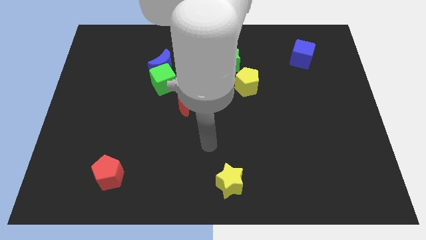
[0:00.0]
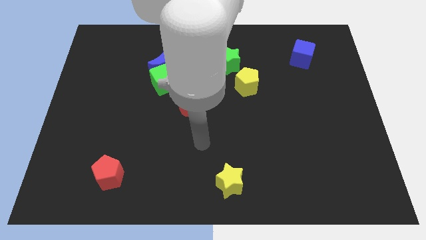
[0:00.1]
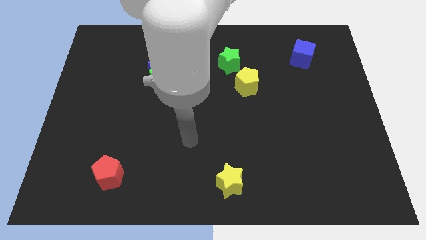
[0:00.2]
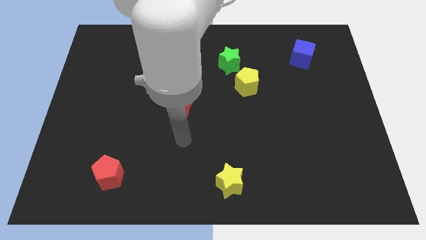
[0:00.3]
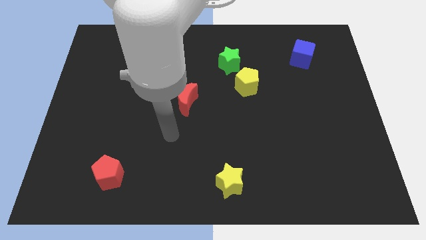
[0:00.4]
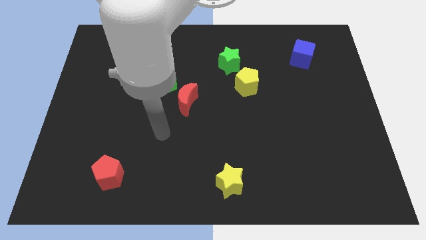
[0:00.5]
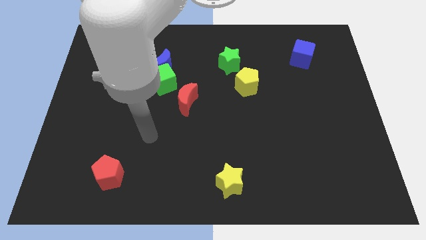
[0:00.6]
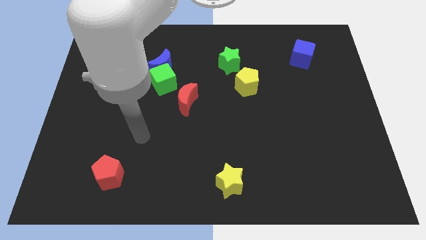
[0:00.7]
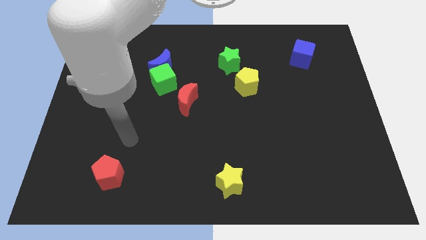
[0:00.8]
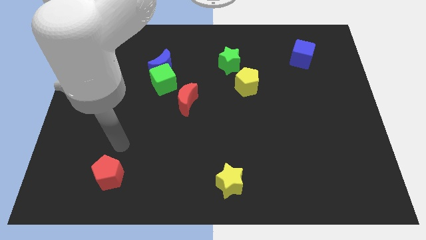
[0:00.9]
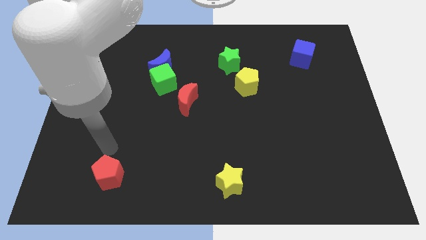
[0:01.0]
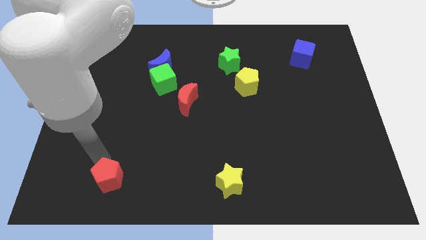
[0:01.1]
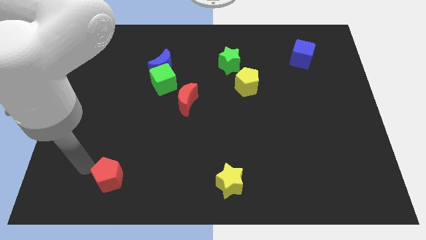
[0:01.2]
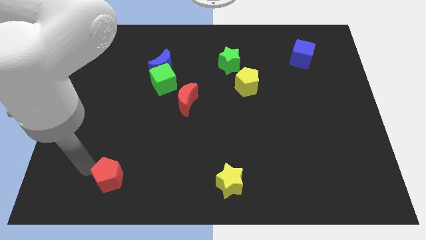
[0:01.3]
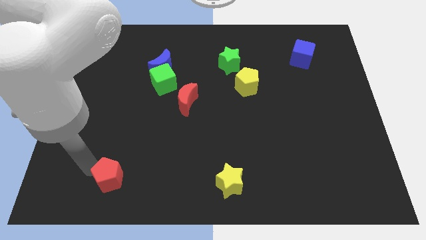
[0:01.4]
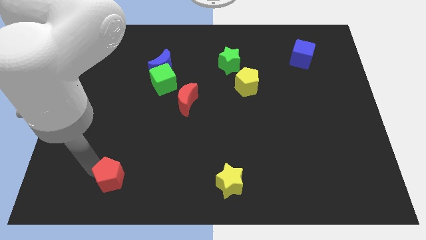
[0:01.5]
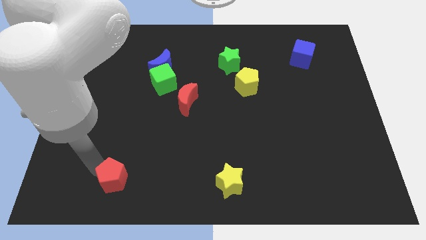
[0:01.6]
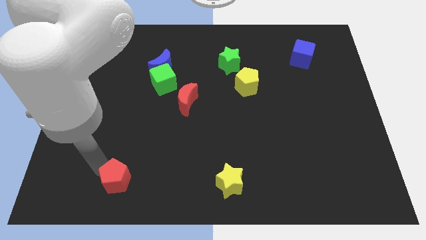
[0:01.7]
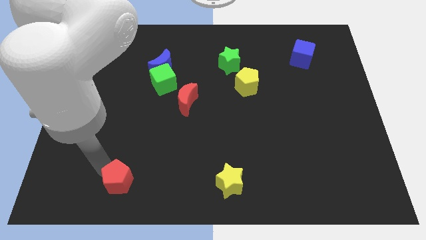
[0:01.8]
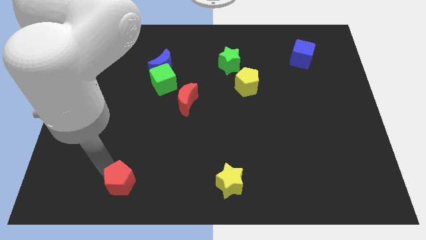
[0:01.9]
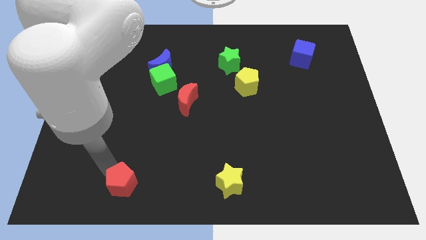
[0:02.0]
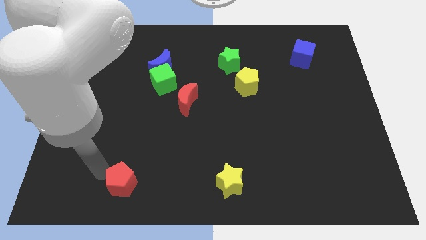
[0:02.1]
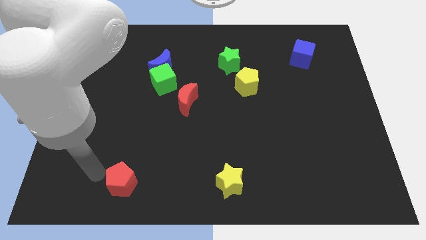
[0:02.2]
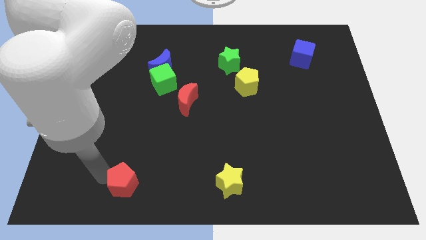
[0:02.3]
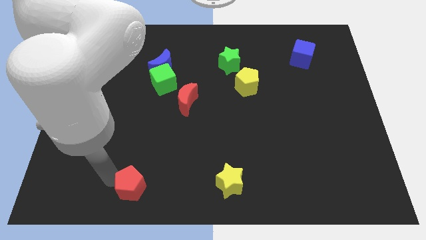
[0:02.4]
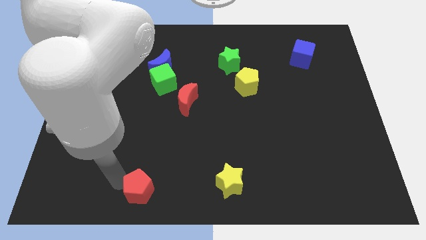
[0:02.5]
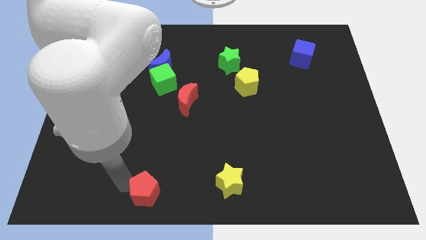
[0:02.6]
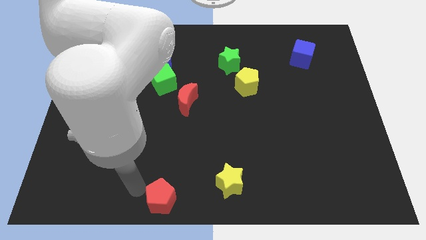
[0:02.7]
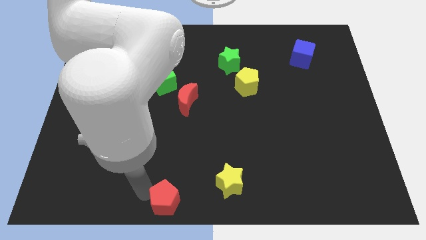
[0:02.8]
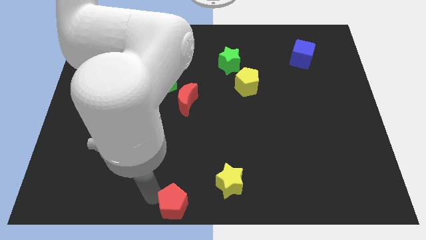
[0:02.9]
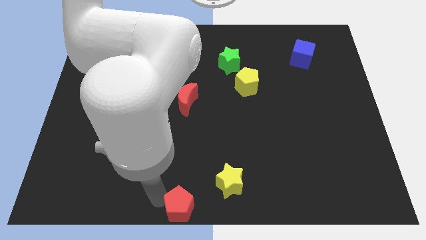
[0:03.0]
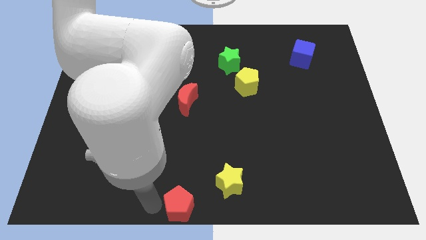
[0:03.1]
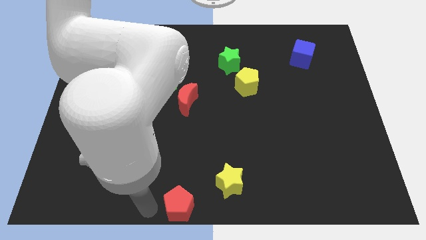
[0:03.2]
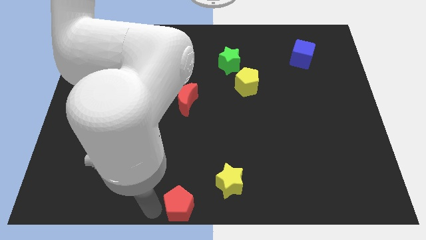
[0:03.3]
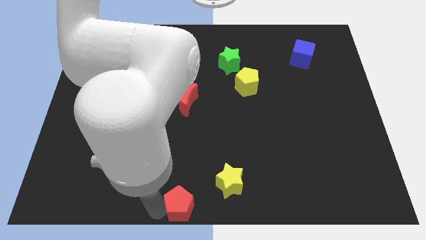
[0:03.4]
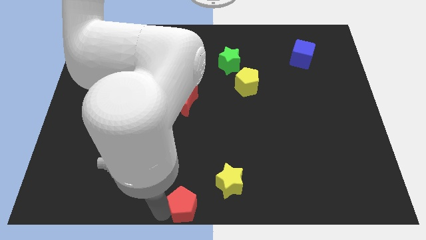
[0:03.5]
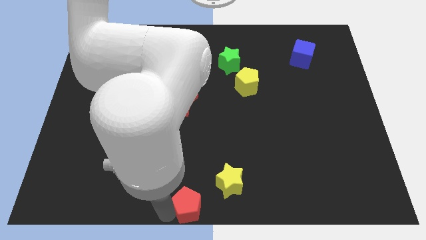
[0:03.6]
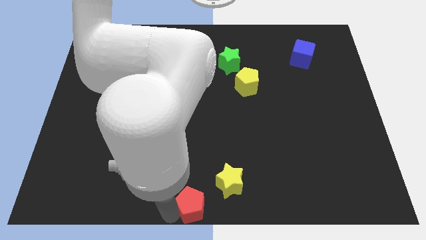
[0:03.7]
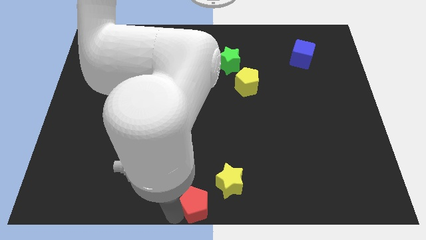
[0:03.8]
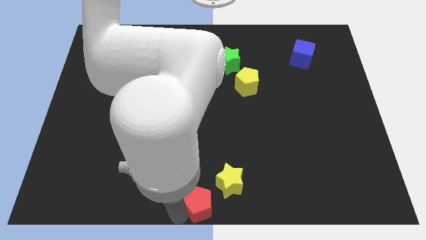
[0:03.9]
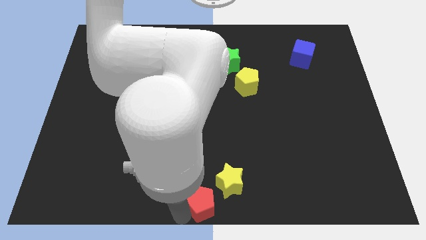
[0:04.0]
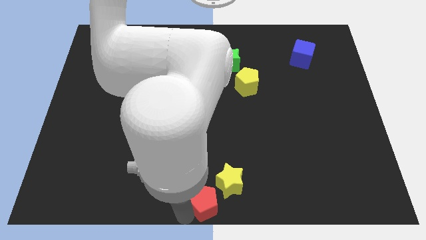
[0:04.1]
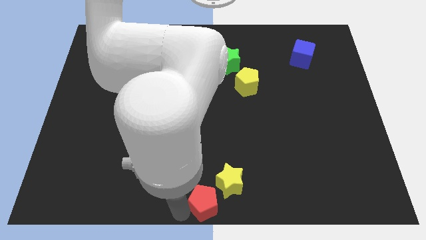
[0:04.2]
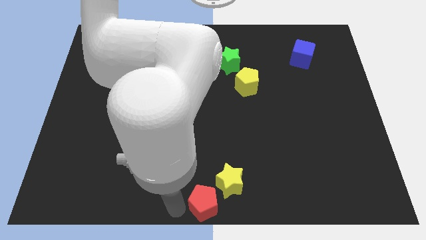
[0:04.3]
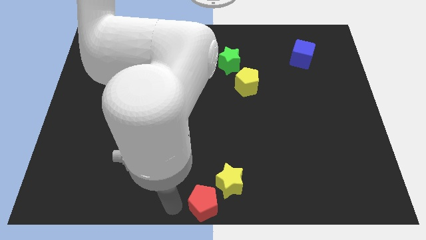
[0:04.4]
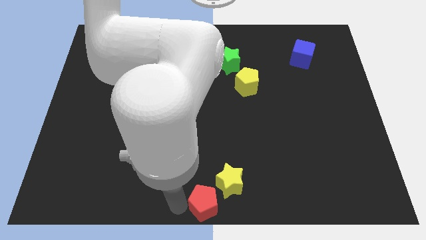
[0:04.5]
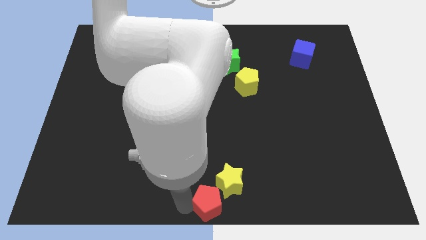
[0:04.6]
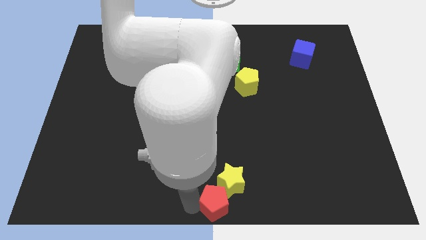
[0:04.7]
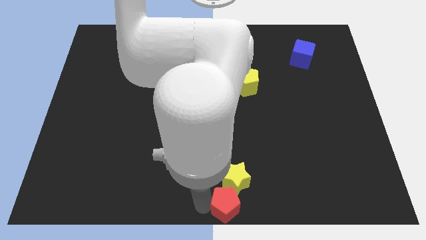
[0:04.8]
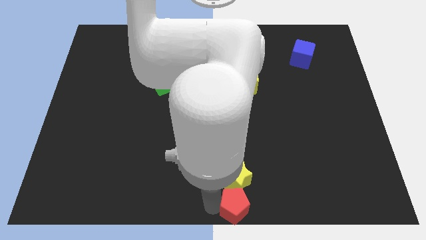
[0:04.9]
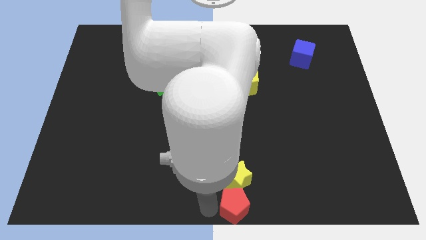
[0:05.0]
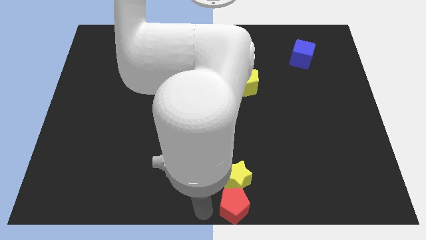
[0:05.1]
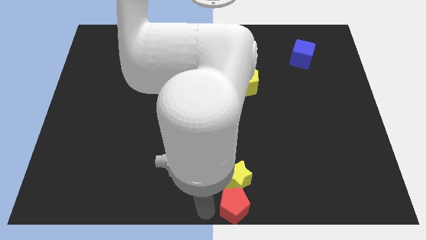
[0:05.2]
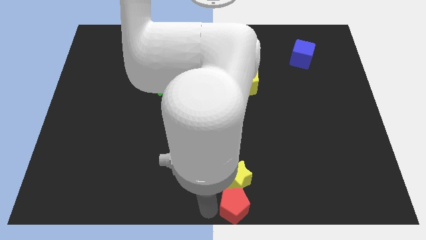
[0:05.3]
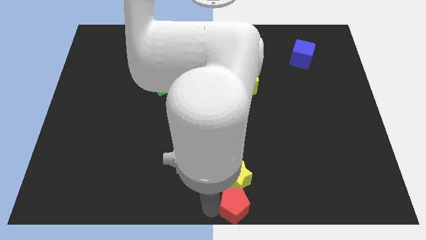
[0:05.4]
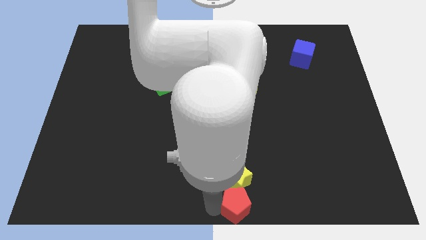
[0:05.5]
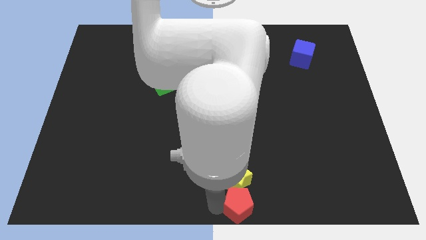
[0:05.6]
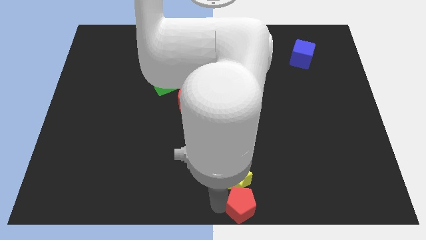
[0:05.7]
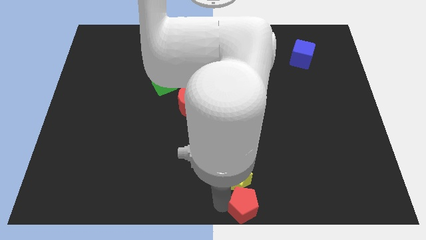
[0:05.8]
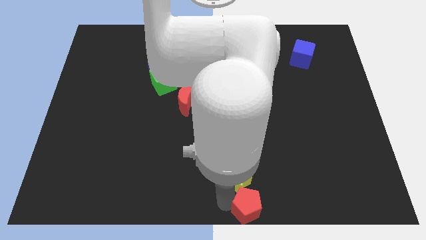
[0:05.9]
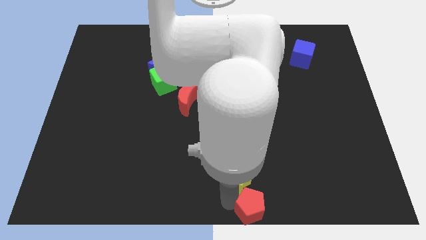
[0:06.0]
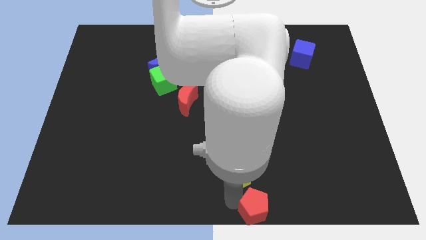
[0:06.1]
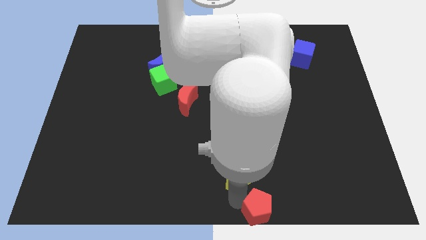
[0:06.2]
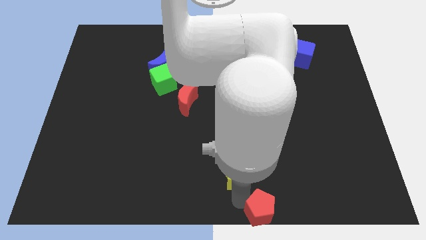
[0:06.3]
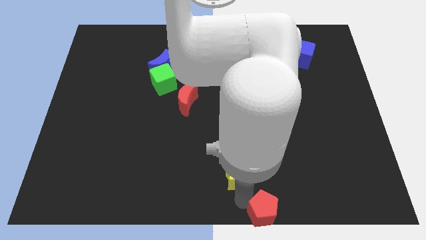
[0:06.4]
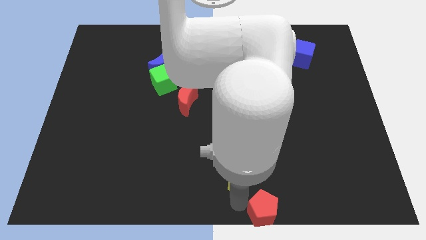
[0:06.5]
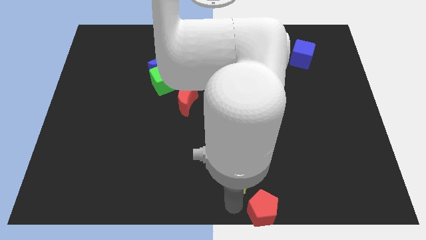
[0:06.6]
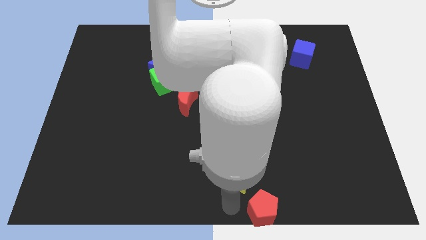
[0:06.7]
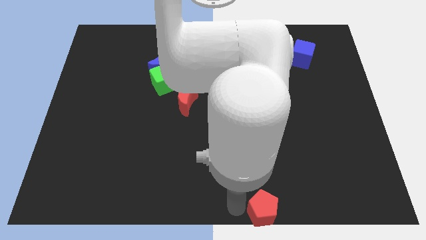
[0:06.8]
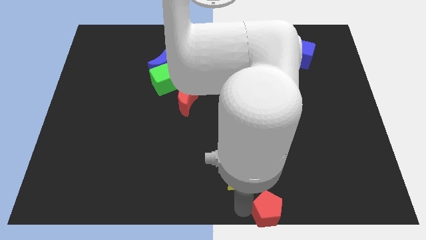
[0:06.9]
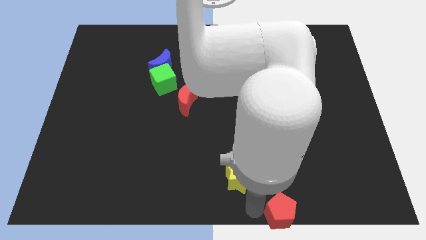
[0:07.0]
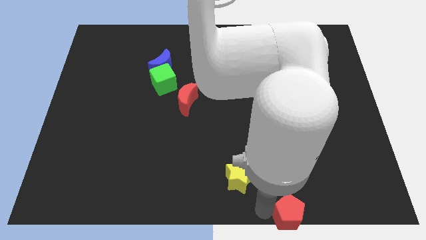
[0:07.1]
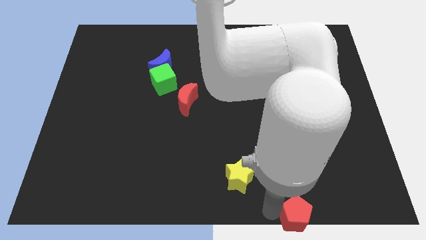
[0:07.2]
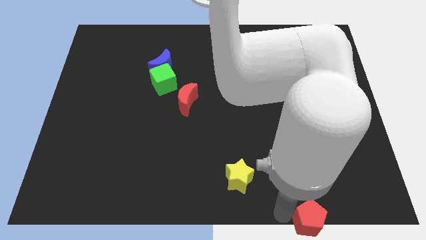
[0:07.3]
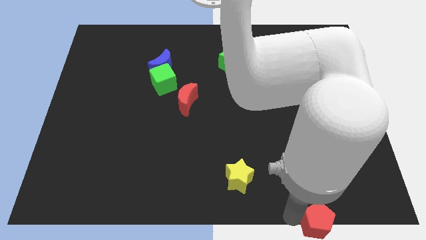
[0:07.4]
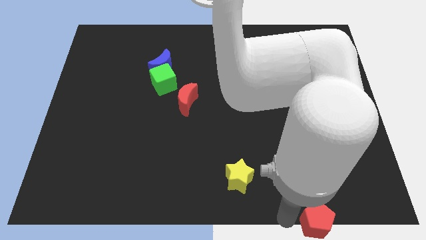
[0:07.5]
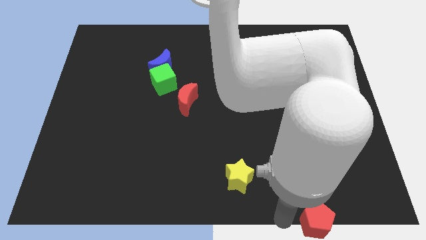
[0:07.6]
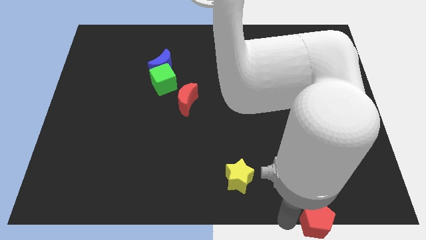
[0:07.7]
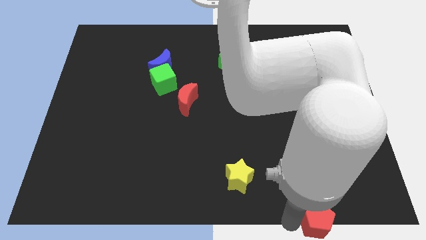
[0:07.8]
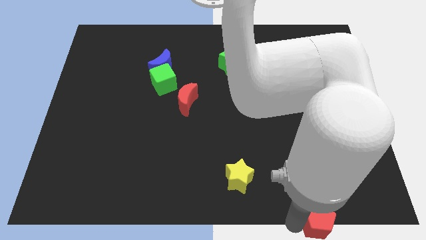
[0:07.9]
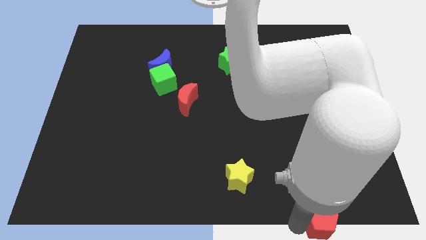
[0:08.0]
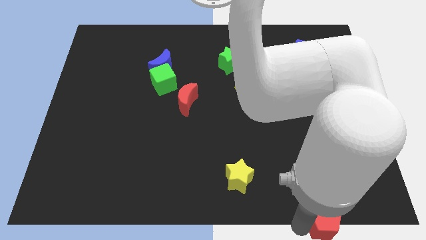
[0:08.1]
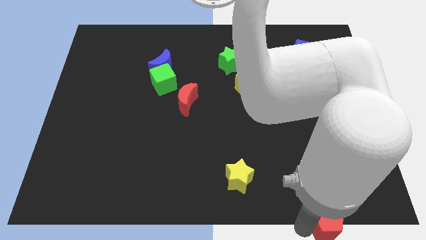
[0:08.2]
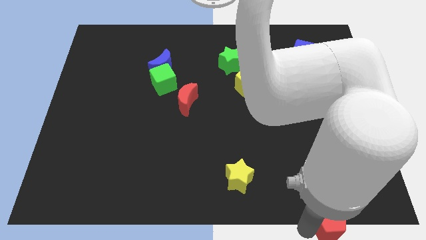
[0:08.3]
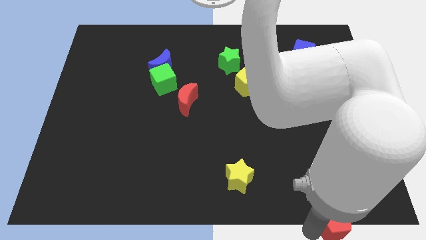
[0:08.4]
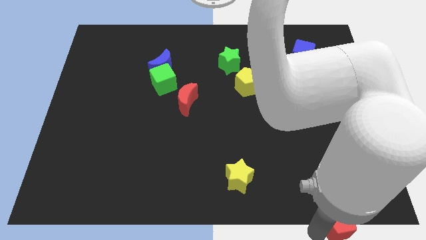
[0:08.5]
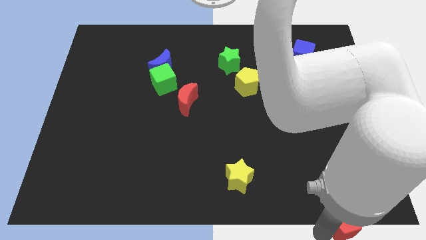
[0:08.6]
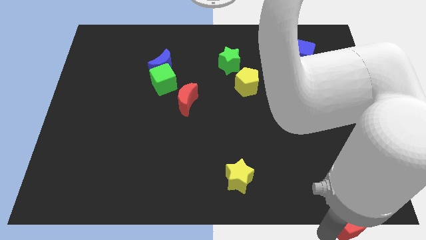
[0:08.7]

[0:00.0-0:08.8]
put the red pentagon to the bottom right of the board
